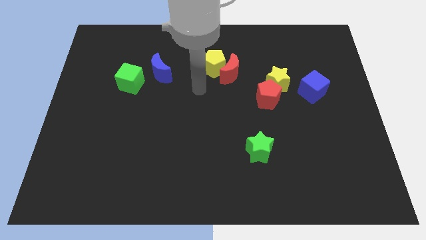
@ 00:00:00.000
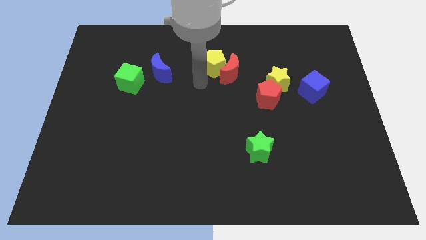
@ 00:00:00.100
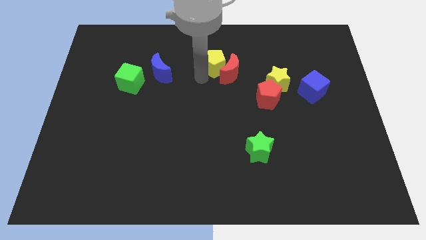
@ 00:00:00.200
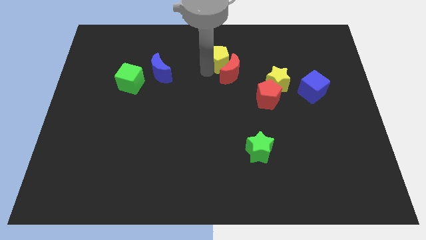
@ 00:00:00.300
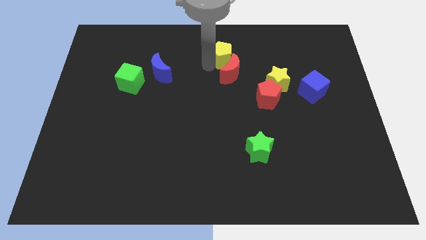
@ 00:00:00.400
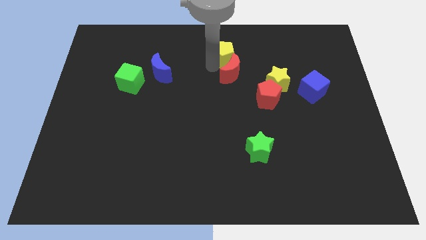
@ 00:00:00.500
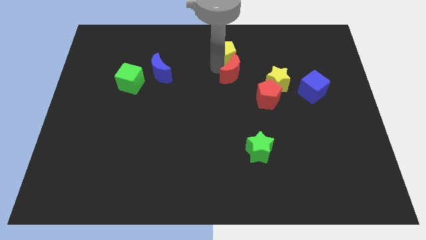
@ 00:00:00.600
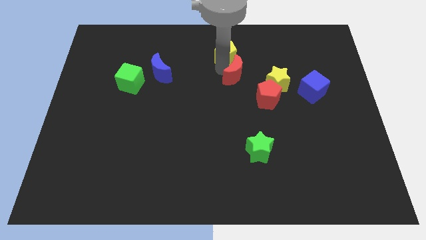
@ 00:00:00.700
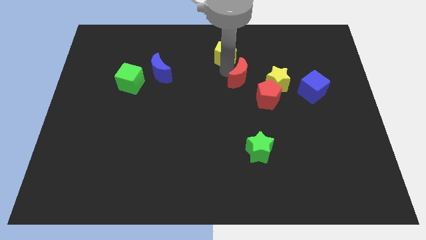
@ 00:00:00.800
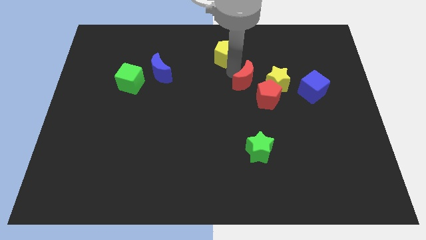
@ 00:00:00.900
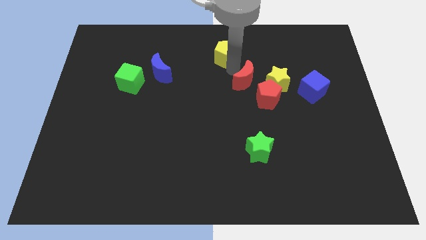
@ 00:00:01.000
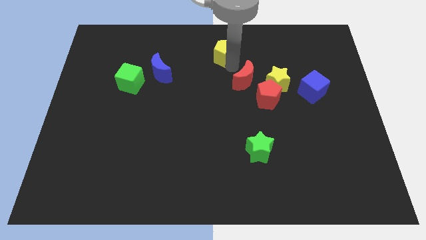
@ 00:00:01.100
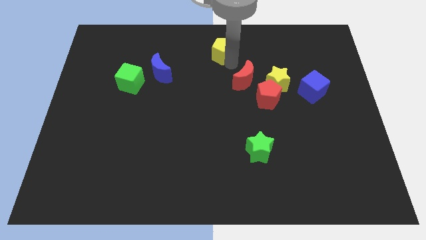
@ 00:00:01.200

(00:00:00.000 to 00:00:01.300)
pull the red moon apart from the yellow pentagon

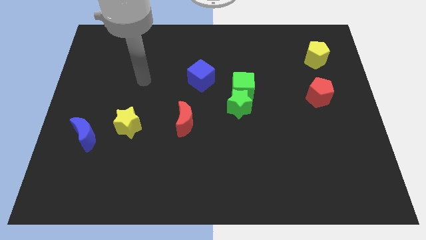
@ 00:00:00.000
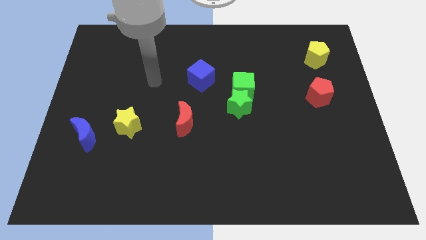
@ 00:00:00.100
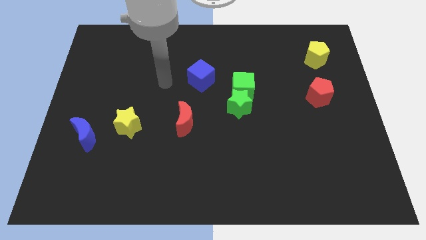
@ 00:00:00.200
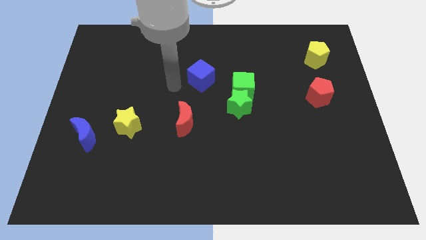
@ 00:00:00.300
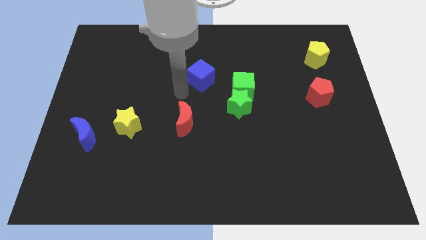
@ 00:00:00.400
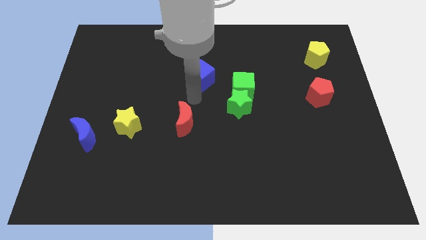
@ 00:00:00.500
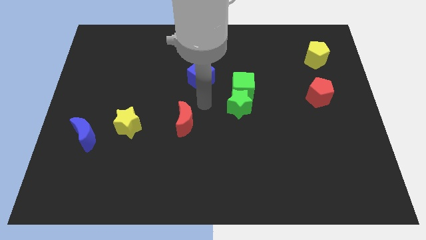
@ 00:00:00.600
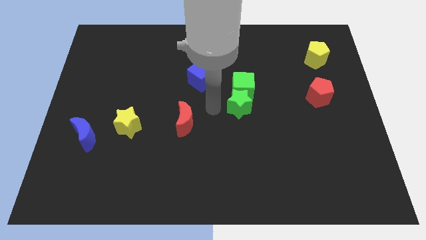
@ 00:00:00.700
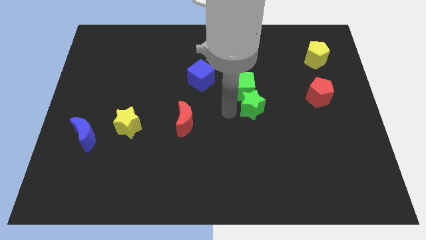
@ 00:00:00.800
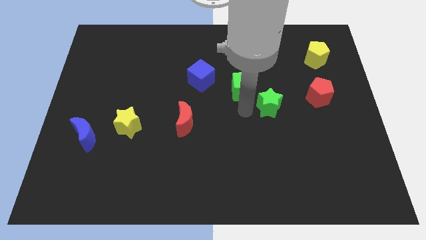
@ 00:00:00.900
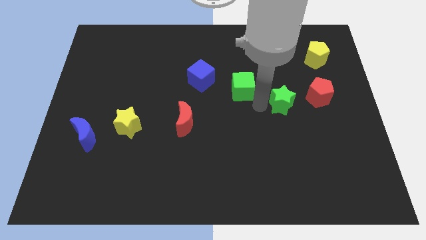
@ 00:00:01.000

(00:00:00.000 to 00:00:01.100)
move the green cube away from the green star

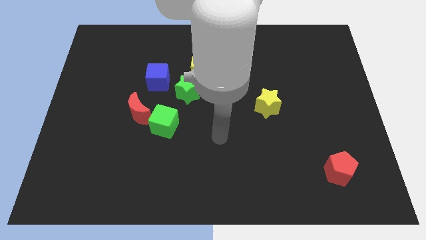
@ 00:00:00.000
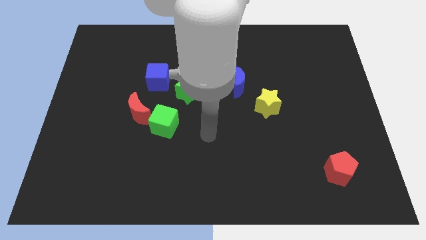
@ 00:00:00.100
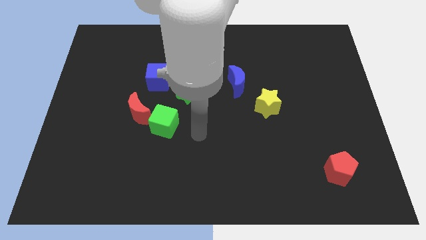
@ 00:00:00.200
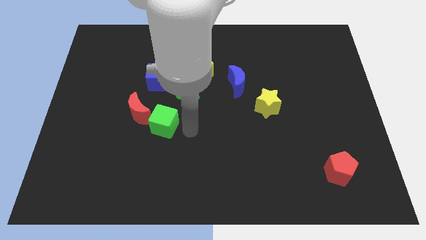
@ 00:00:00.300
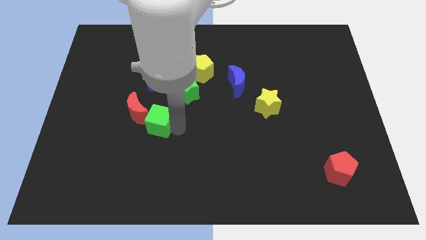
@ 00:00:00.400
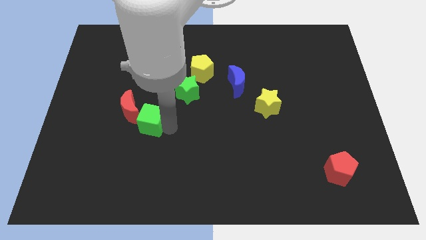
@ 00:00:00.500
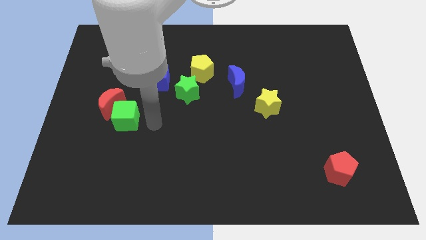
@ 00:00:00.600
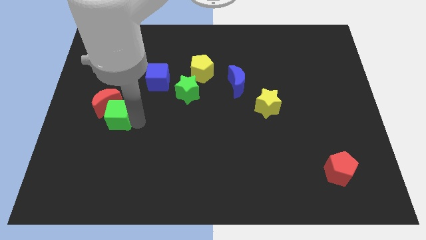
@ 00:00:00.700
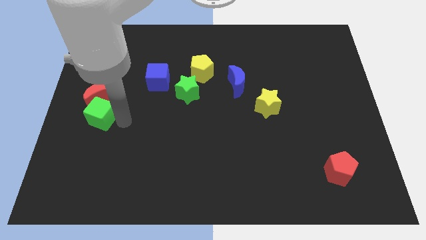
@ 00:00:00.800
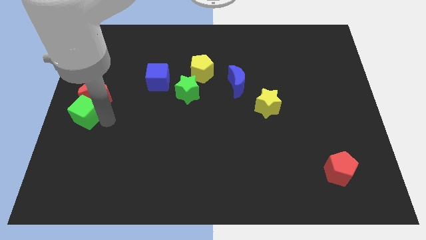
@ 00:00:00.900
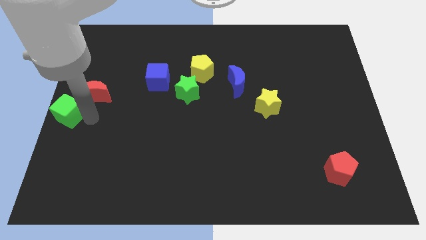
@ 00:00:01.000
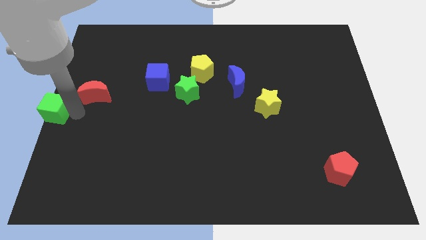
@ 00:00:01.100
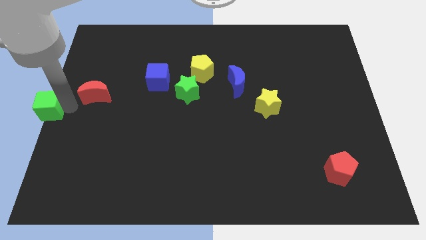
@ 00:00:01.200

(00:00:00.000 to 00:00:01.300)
pull the red moon apart from the green cube

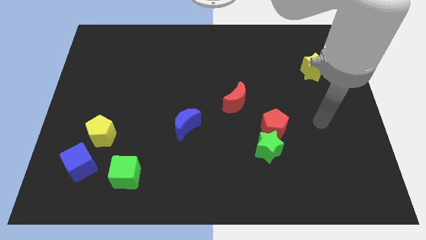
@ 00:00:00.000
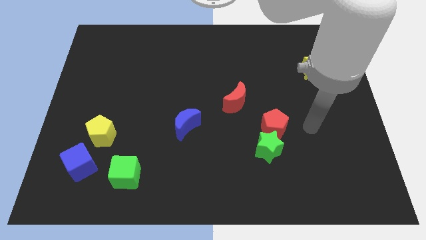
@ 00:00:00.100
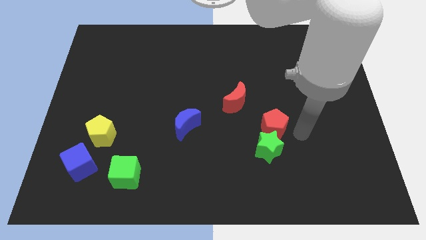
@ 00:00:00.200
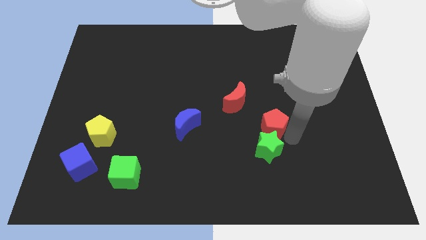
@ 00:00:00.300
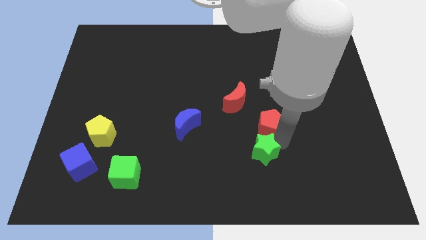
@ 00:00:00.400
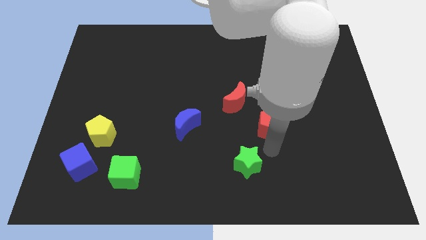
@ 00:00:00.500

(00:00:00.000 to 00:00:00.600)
separate the red pentagon from the green star

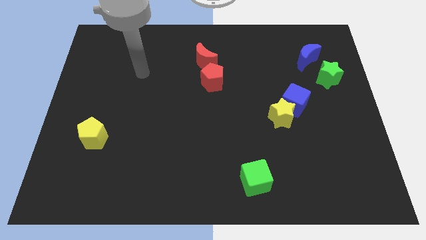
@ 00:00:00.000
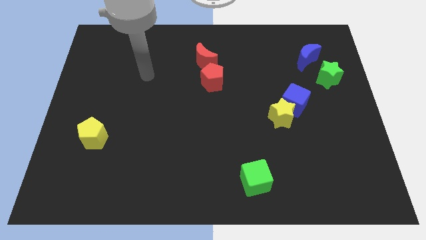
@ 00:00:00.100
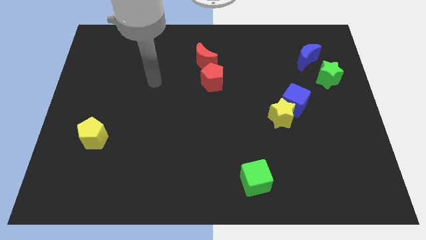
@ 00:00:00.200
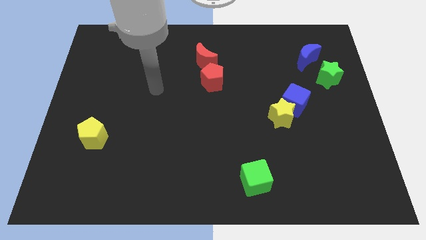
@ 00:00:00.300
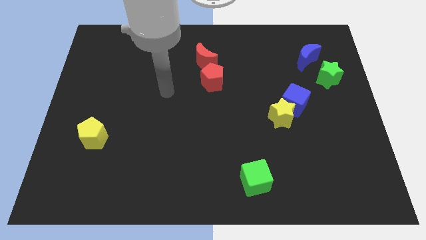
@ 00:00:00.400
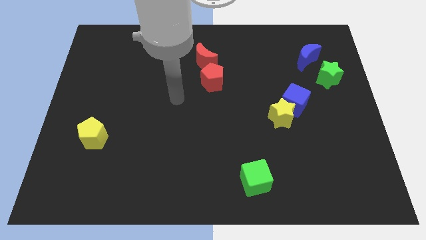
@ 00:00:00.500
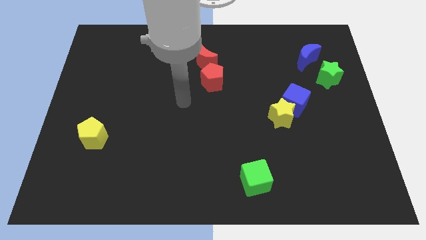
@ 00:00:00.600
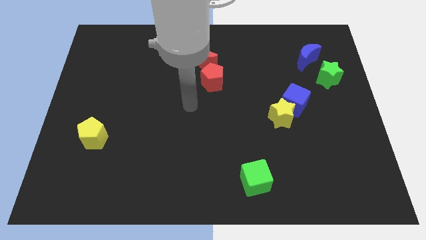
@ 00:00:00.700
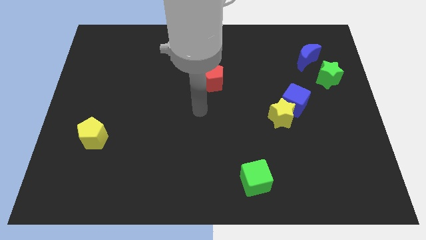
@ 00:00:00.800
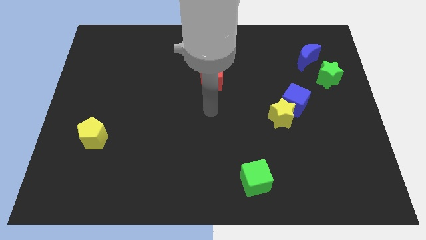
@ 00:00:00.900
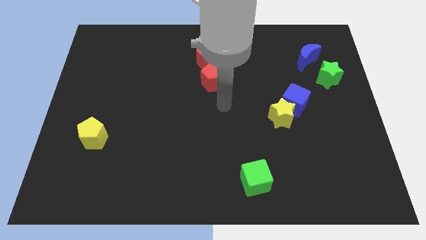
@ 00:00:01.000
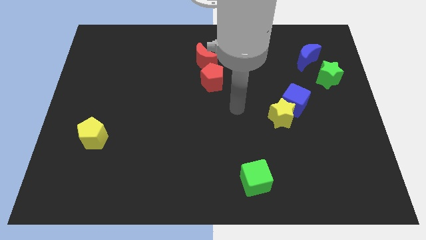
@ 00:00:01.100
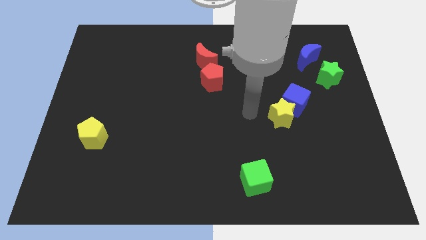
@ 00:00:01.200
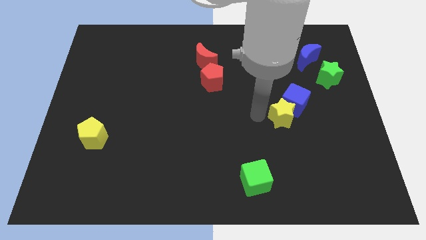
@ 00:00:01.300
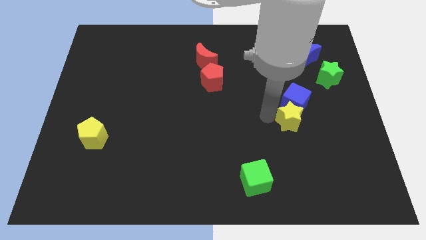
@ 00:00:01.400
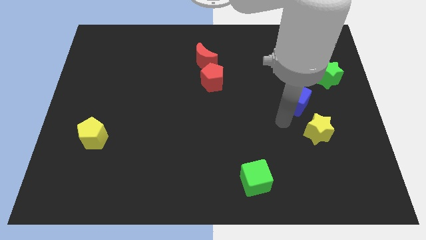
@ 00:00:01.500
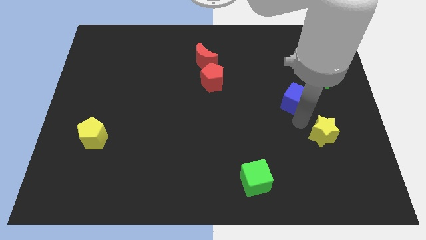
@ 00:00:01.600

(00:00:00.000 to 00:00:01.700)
move the blue cube away from the yellow star

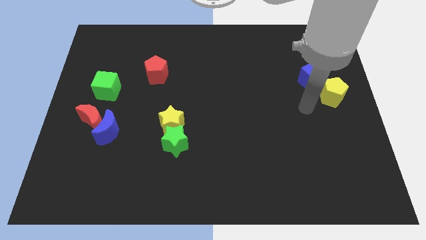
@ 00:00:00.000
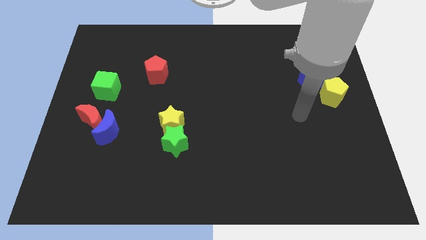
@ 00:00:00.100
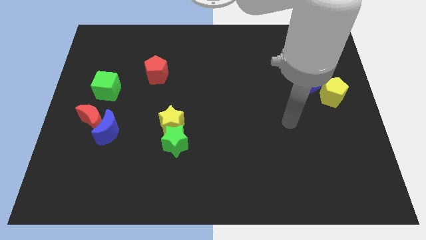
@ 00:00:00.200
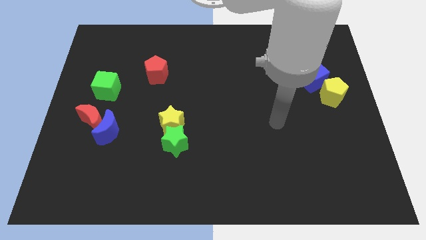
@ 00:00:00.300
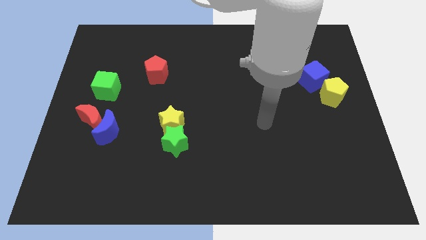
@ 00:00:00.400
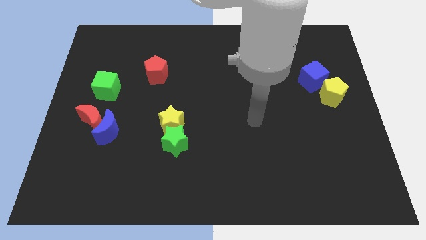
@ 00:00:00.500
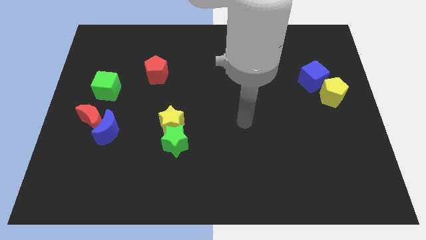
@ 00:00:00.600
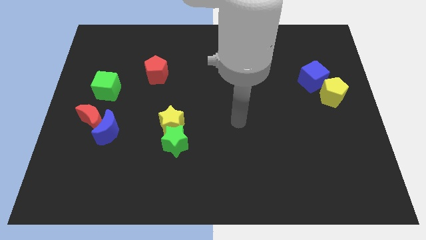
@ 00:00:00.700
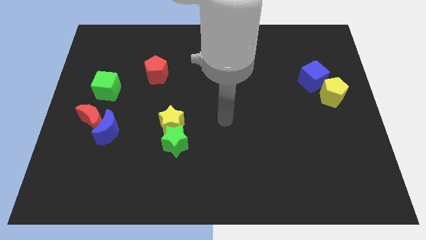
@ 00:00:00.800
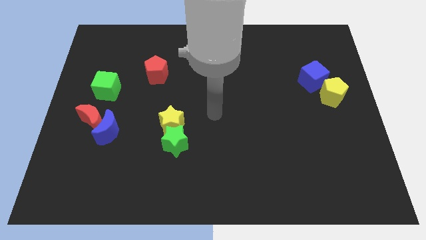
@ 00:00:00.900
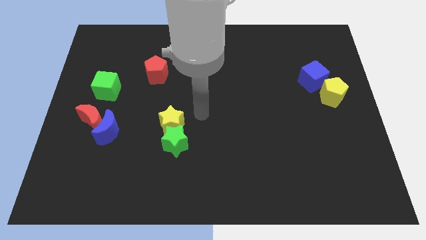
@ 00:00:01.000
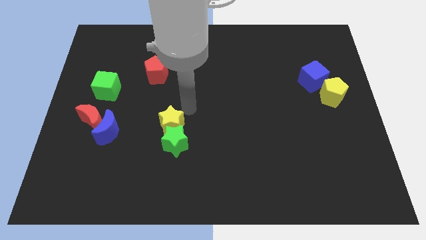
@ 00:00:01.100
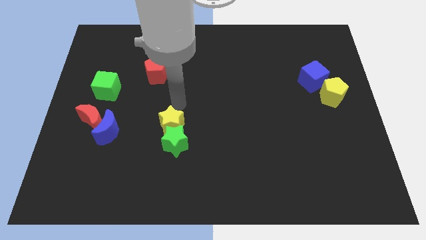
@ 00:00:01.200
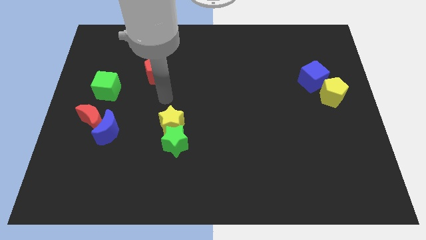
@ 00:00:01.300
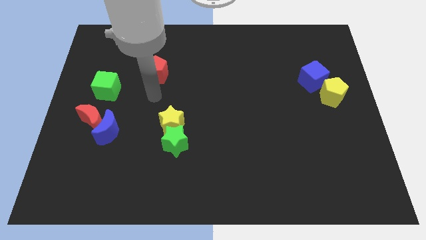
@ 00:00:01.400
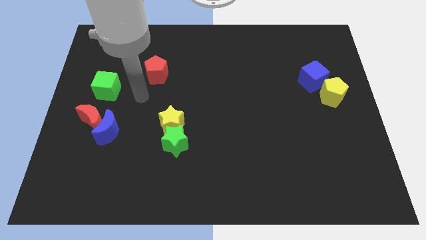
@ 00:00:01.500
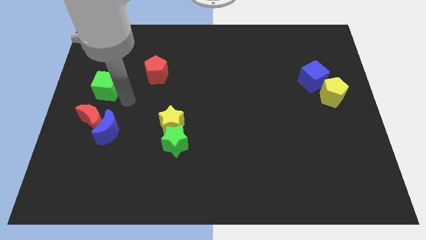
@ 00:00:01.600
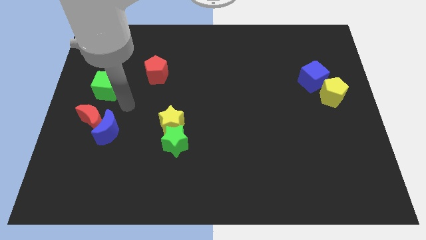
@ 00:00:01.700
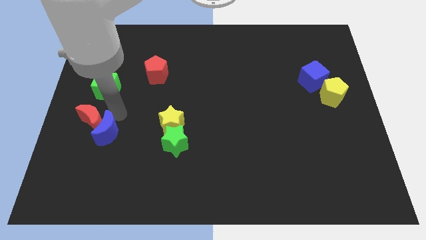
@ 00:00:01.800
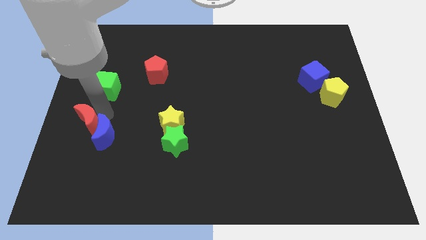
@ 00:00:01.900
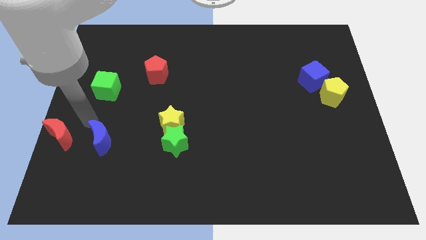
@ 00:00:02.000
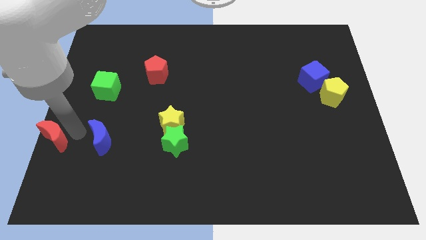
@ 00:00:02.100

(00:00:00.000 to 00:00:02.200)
separate the blue moon from the red moon

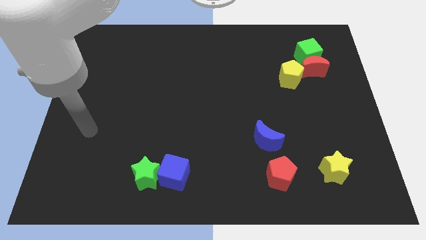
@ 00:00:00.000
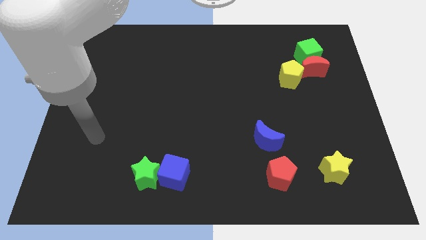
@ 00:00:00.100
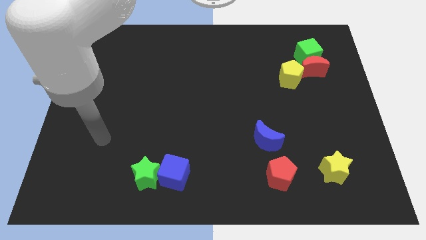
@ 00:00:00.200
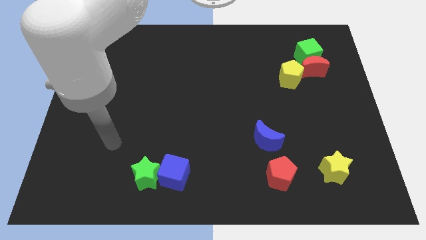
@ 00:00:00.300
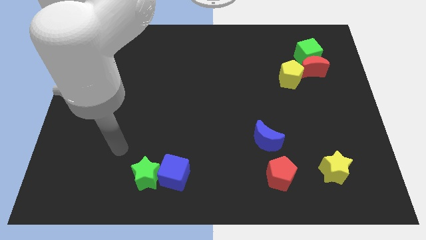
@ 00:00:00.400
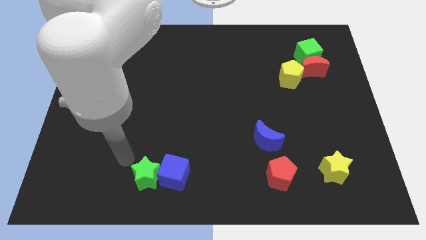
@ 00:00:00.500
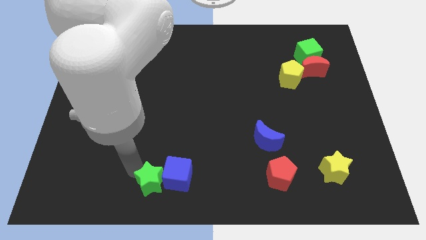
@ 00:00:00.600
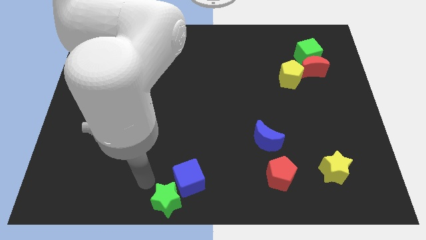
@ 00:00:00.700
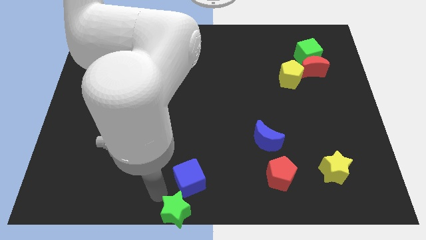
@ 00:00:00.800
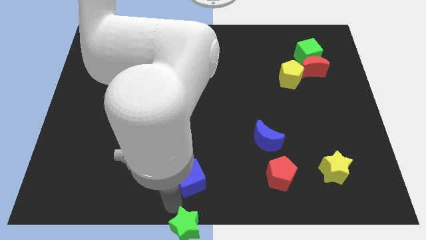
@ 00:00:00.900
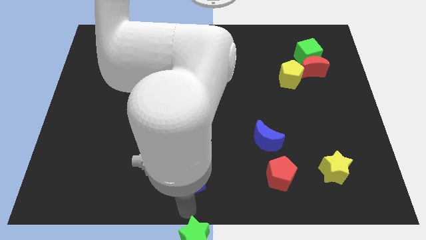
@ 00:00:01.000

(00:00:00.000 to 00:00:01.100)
separate the blue cube from the green star

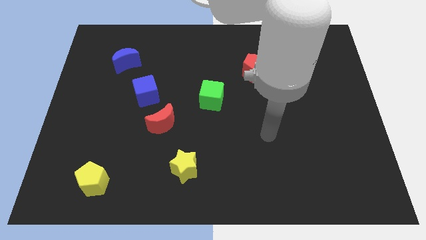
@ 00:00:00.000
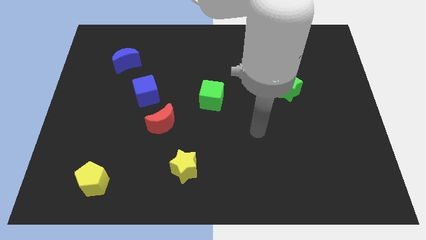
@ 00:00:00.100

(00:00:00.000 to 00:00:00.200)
separate the red moon from the blue cube
